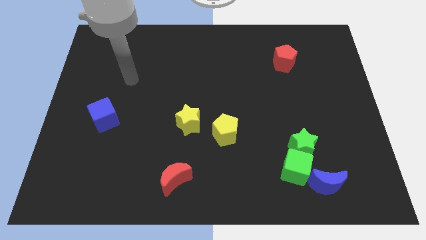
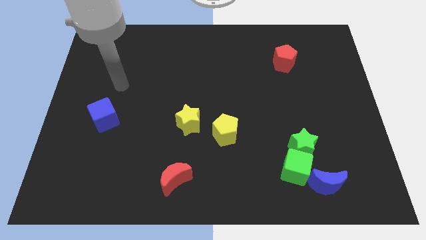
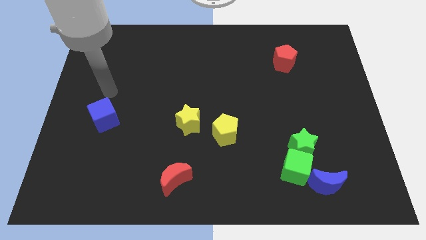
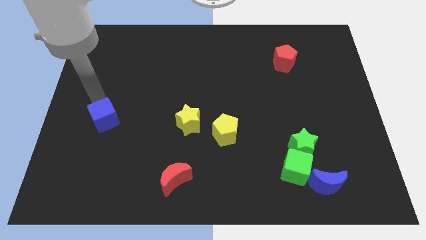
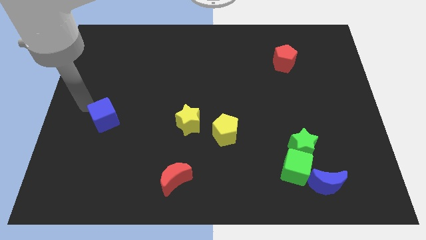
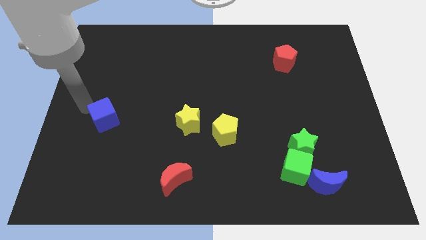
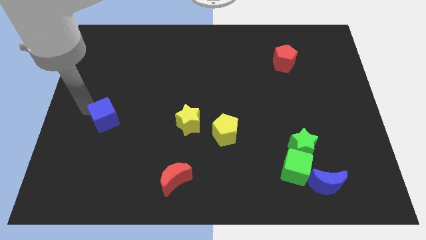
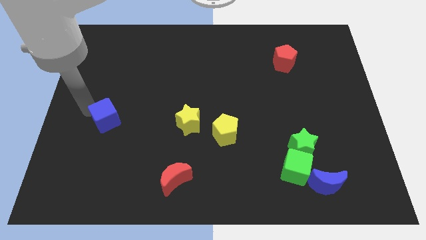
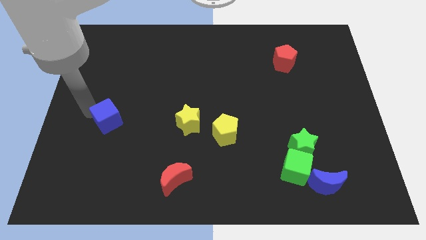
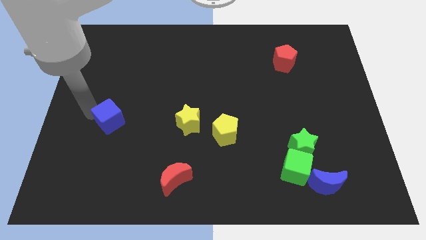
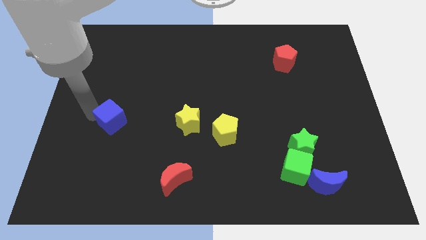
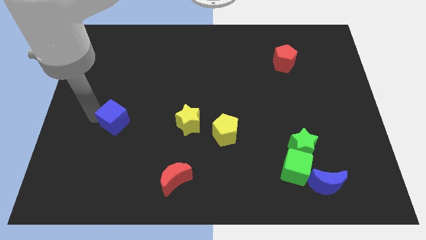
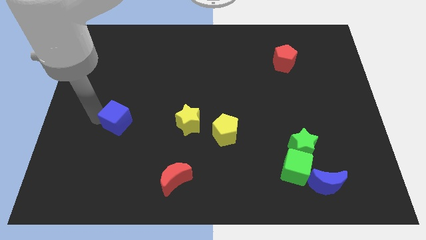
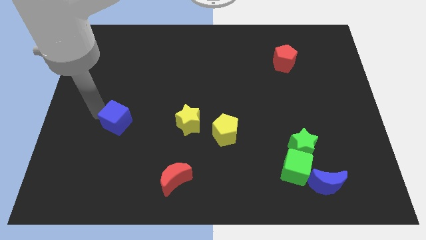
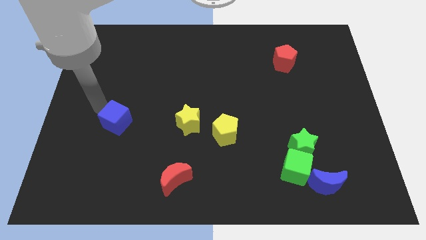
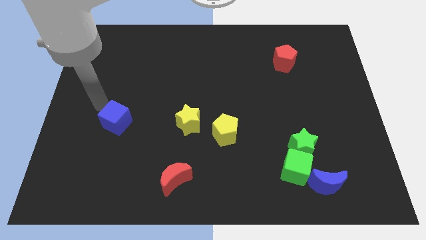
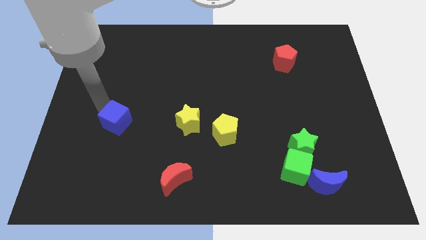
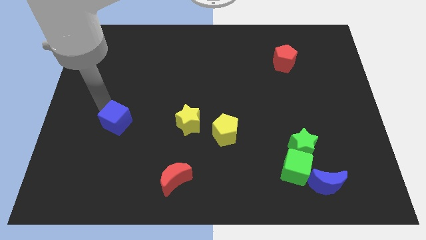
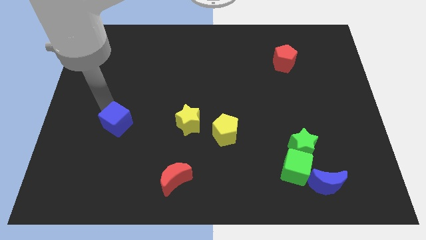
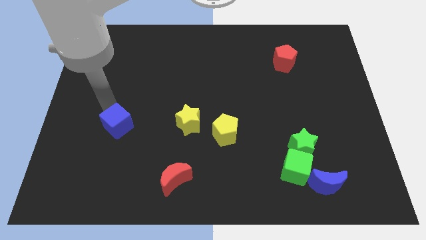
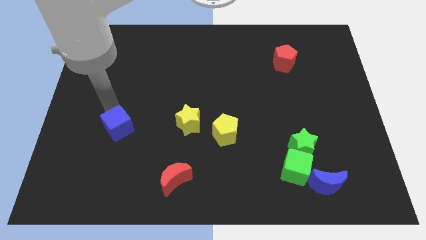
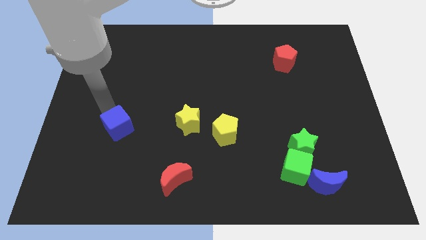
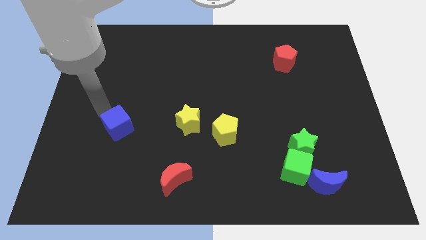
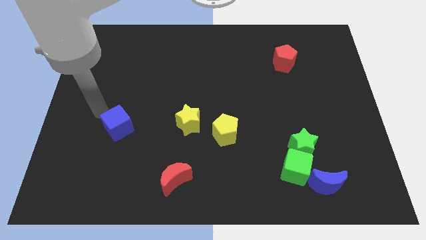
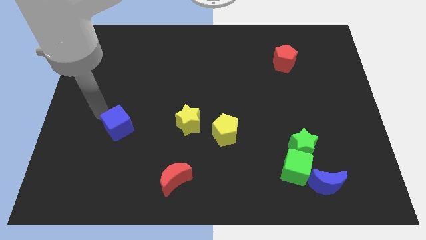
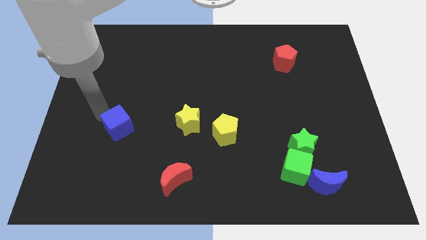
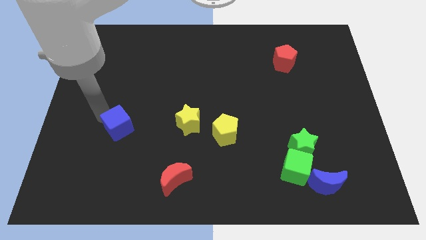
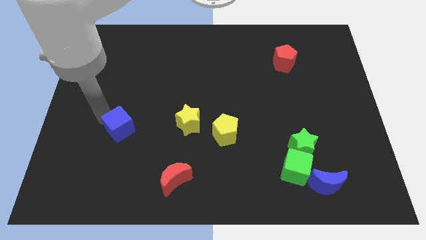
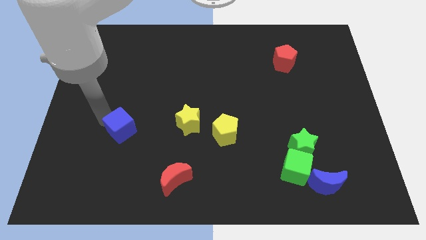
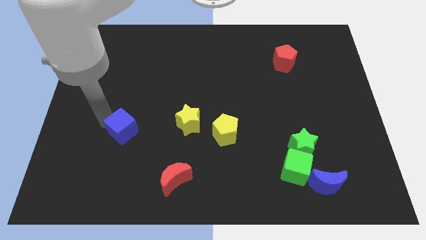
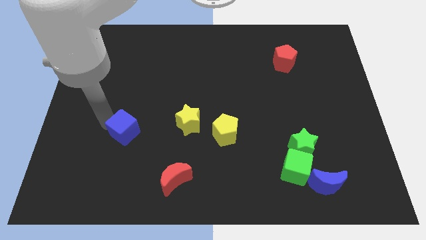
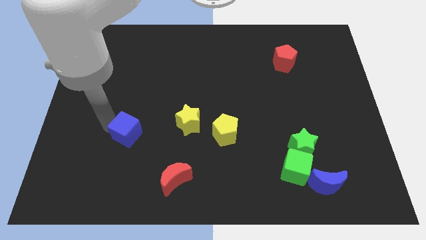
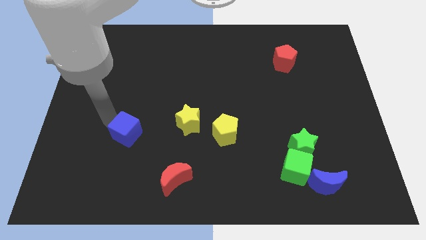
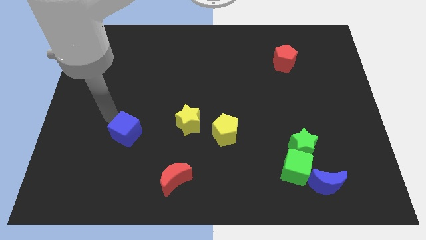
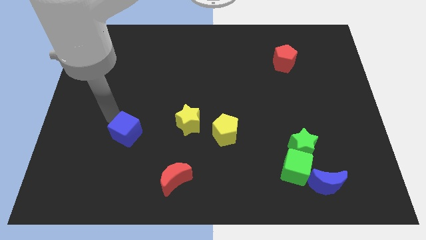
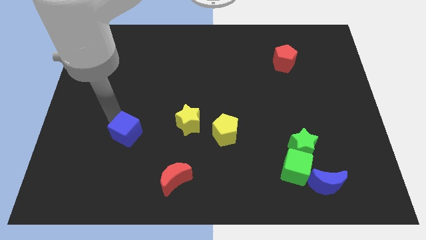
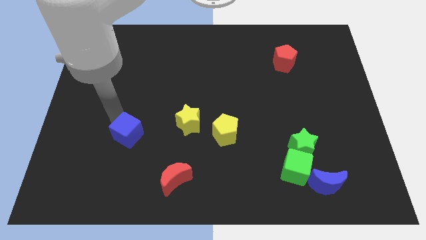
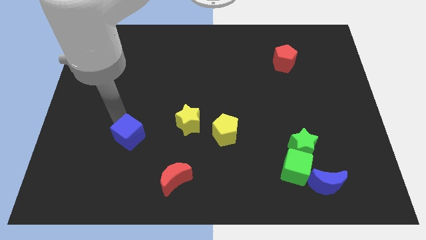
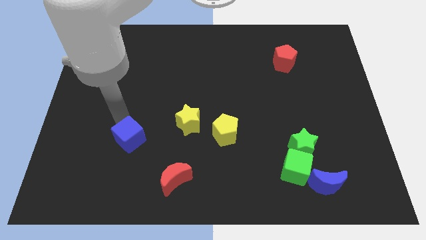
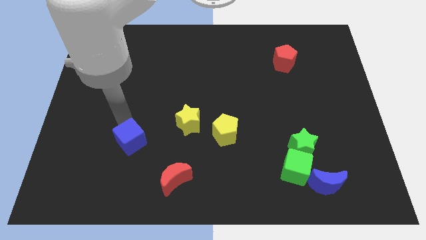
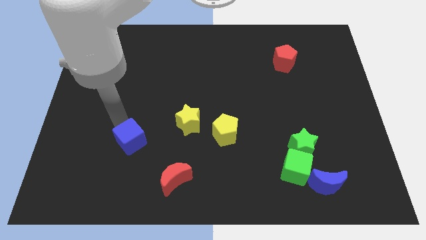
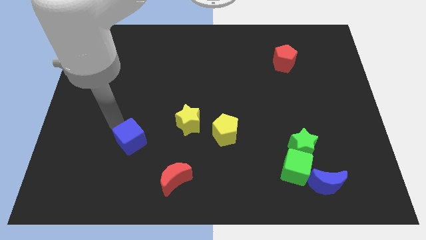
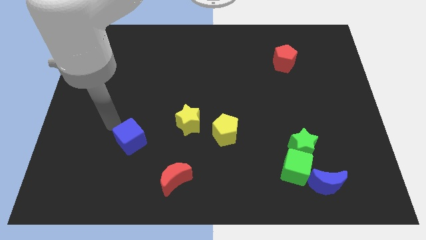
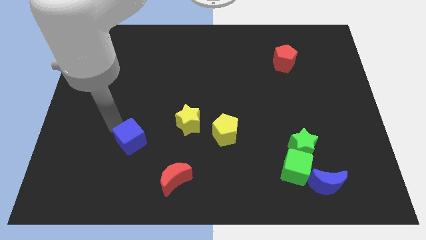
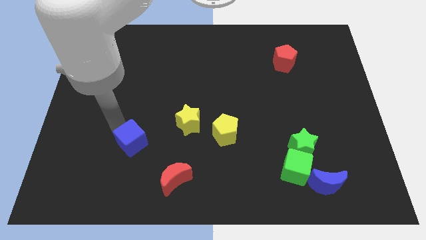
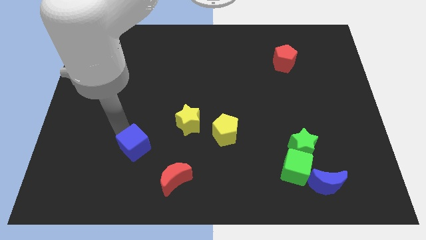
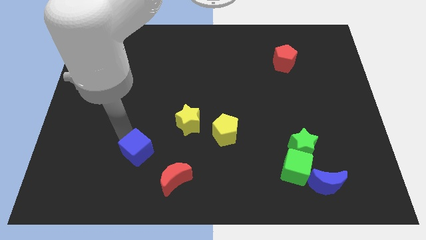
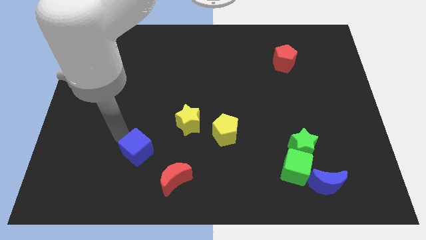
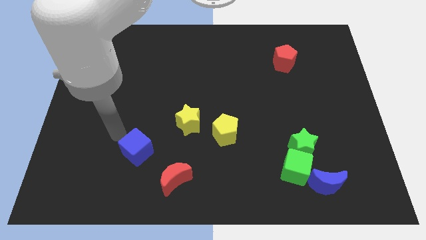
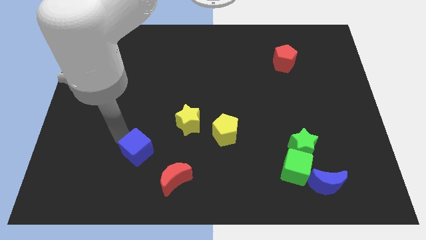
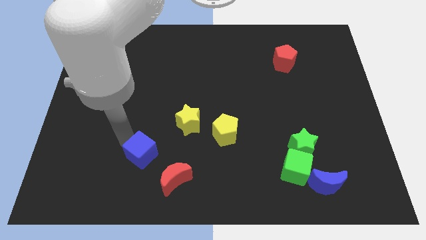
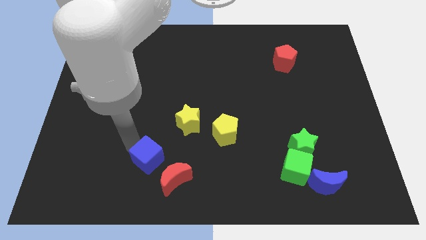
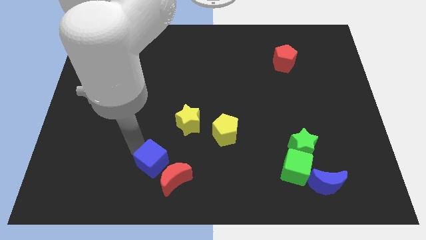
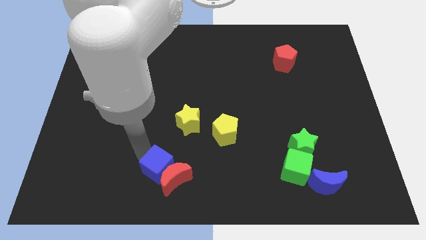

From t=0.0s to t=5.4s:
push the blue cube to the red moon

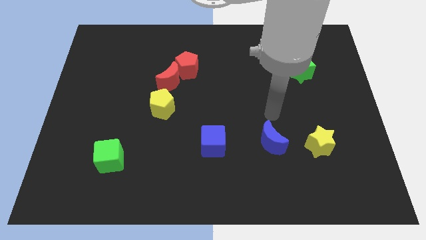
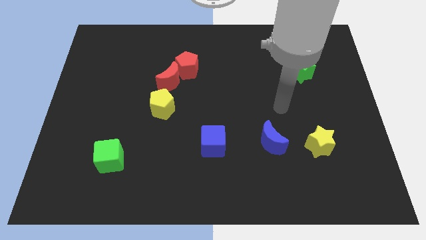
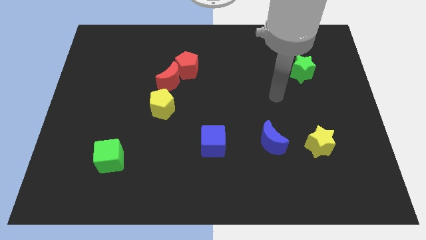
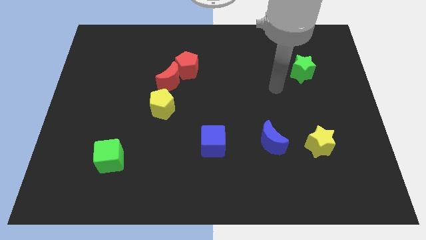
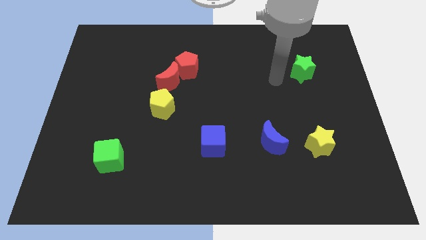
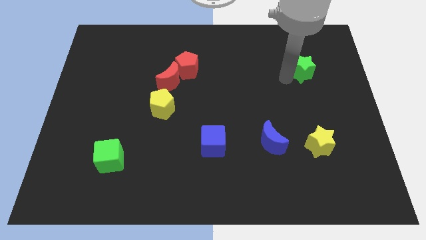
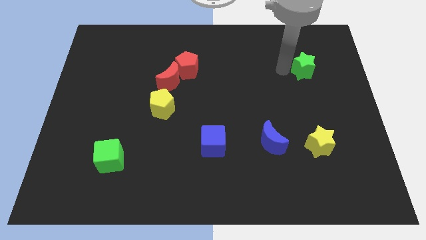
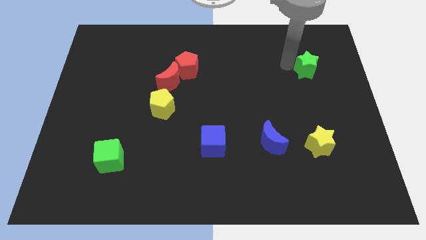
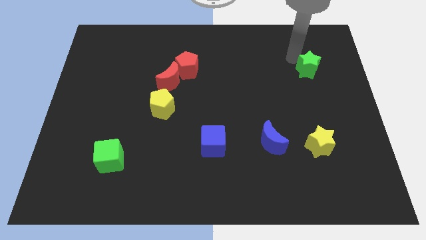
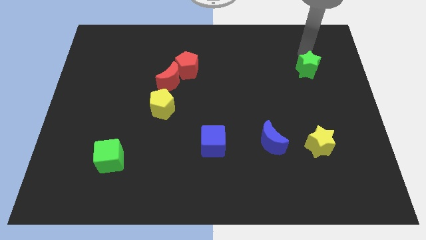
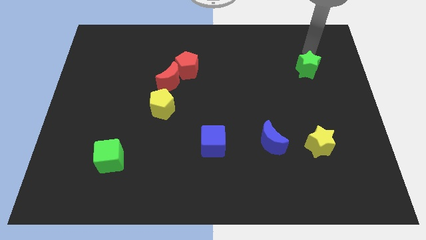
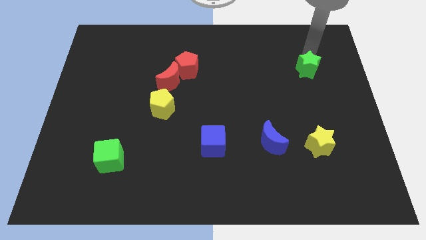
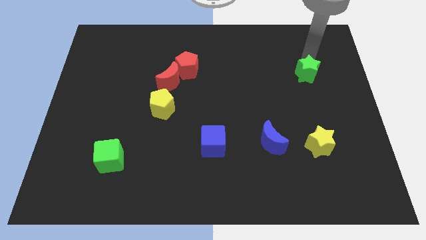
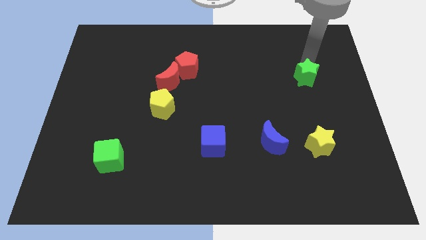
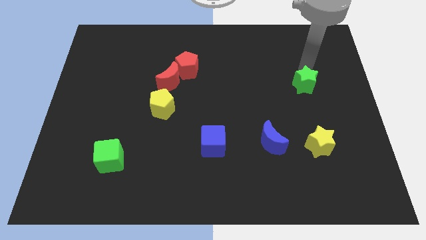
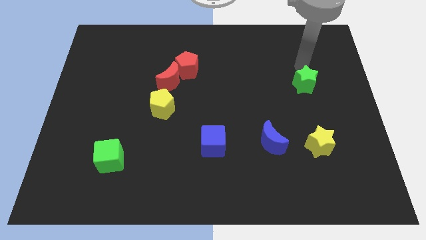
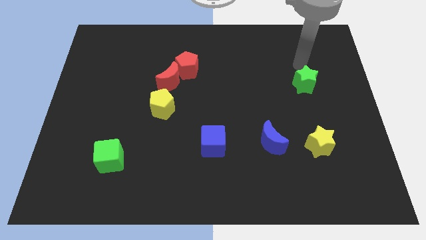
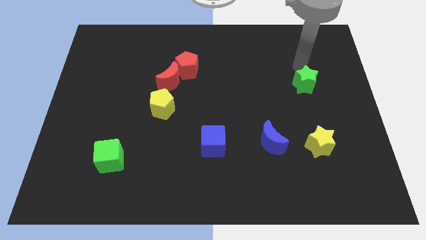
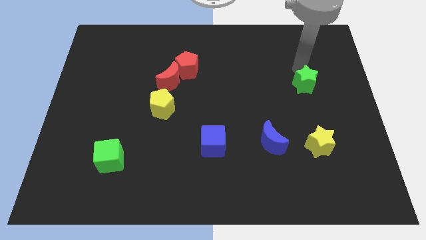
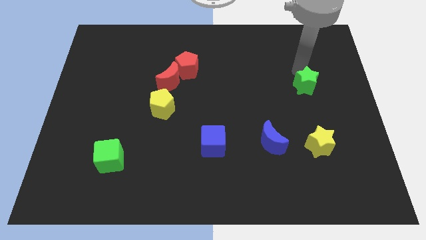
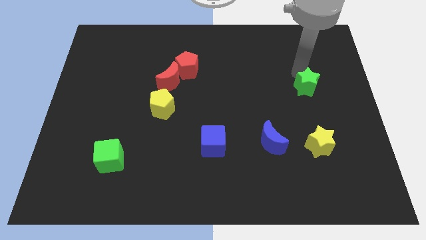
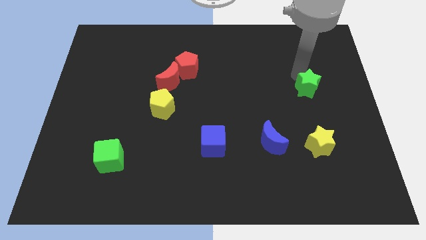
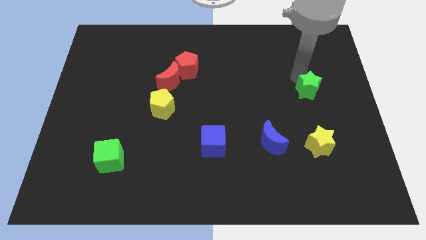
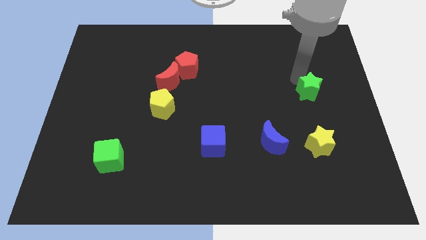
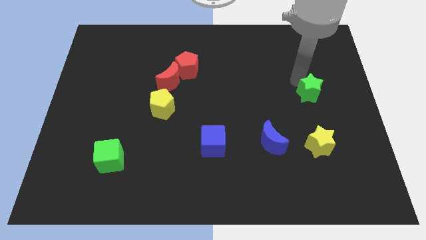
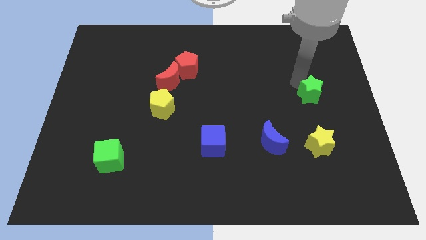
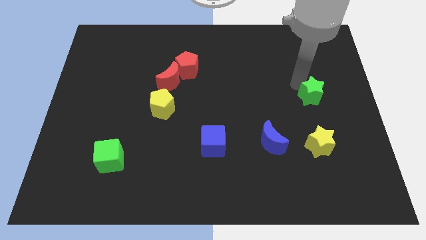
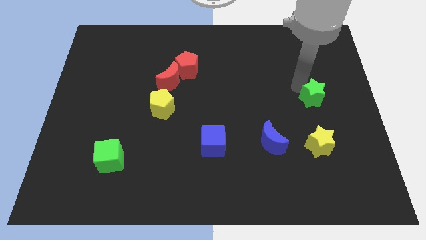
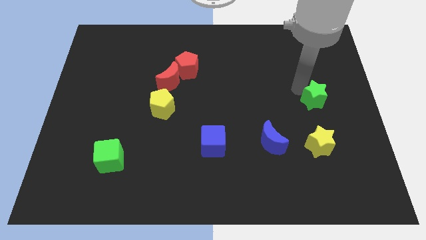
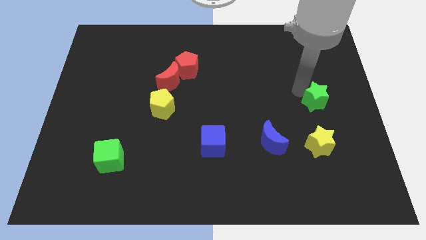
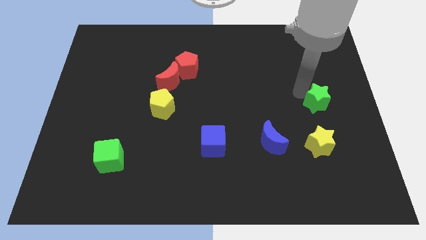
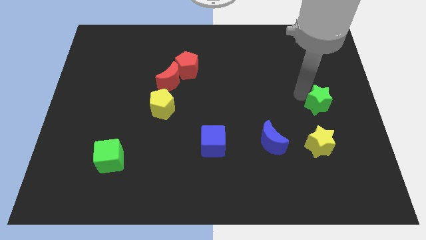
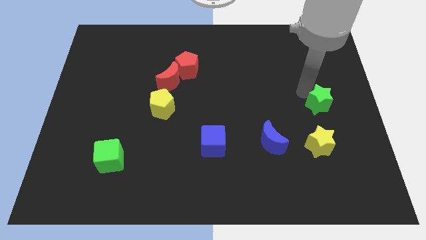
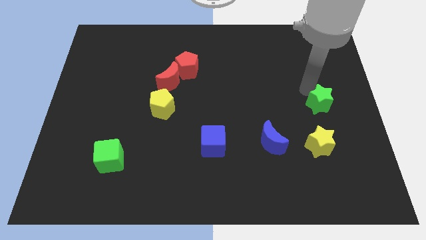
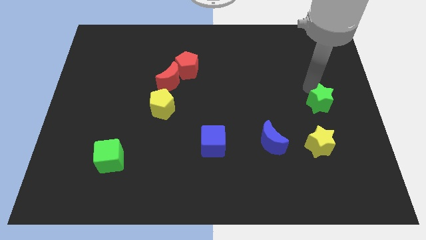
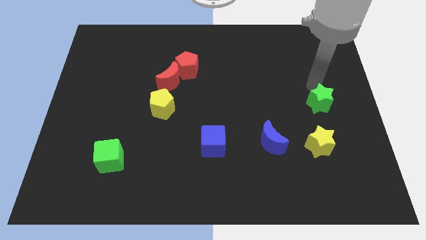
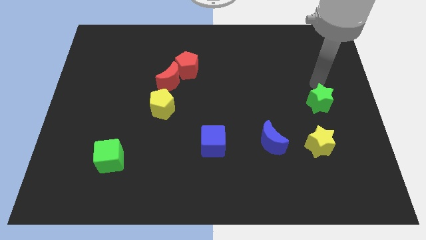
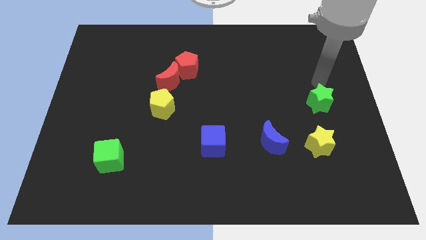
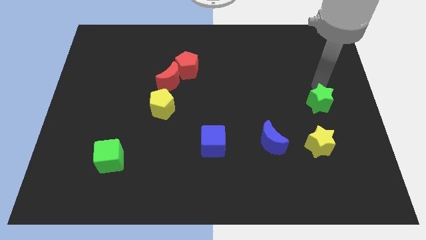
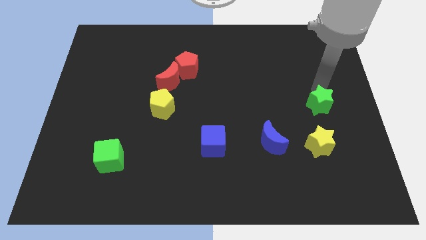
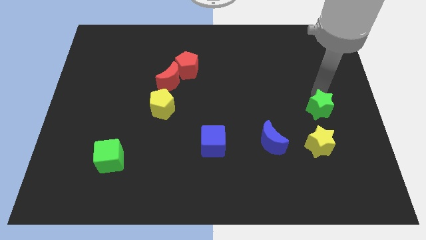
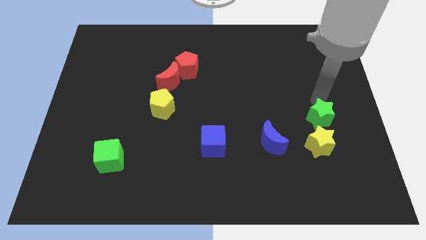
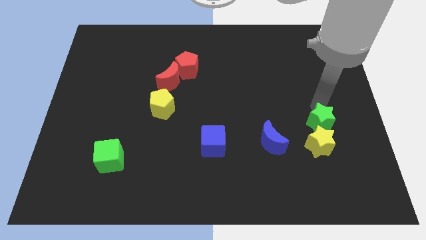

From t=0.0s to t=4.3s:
slide the green star close to the yellow star
